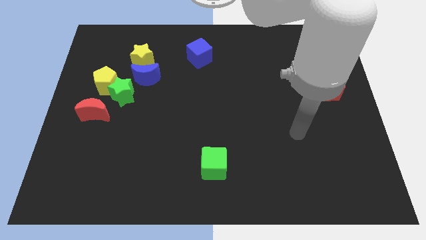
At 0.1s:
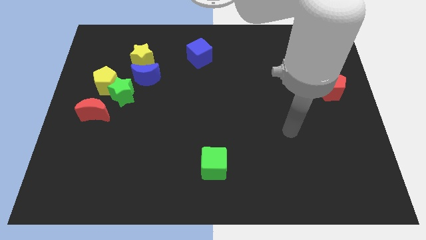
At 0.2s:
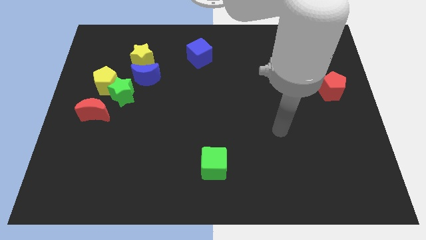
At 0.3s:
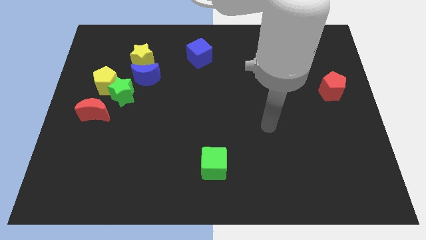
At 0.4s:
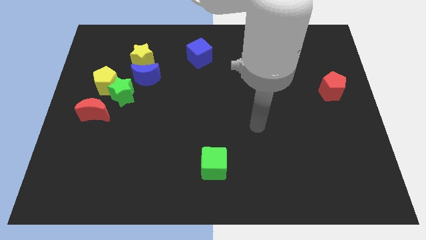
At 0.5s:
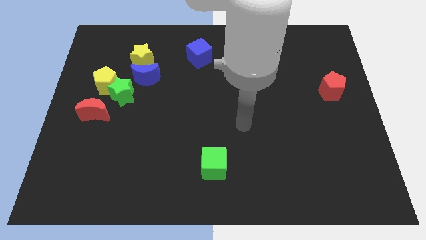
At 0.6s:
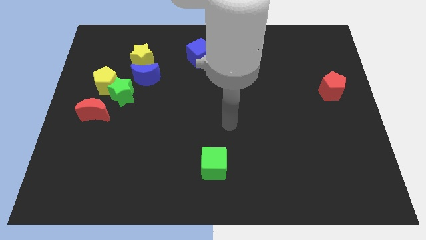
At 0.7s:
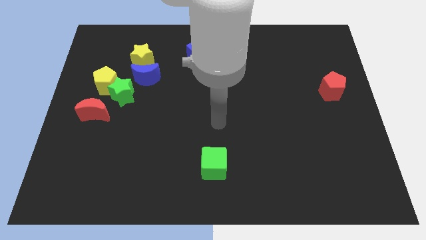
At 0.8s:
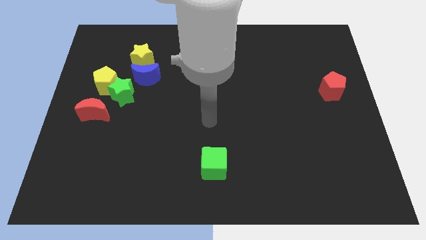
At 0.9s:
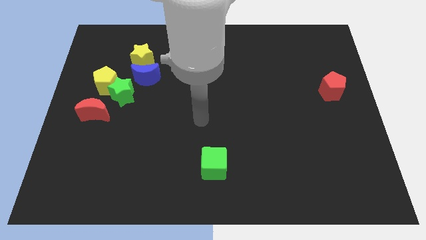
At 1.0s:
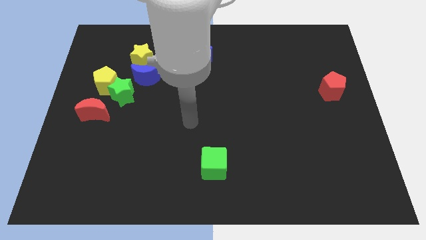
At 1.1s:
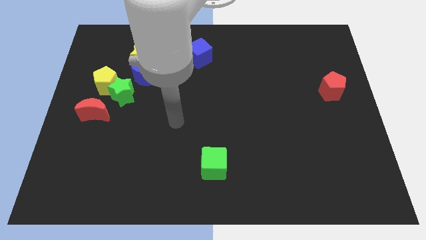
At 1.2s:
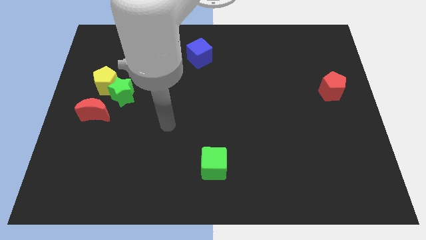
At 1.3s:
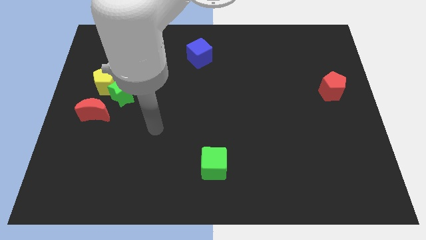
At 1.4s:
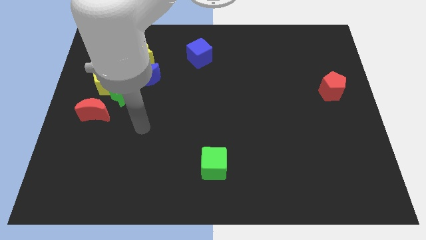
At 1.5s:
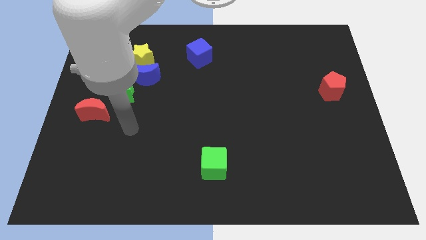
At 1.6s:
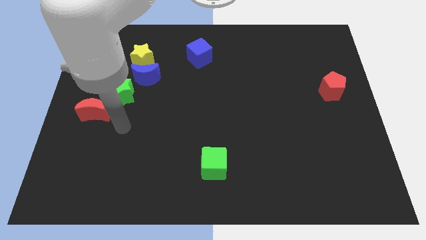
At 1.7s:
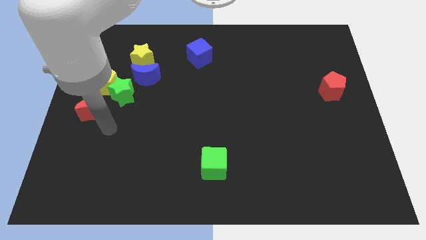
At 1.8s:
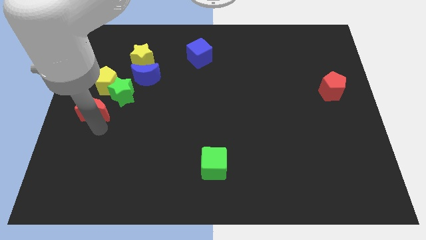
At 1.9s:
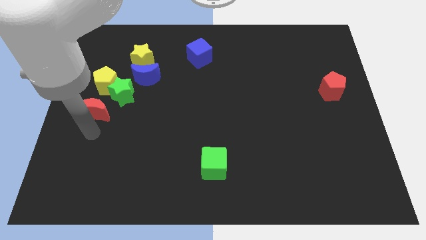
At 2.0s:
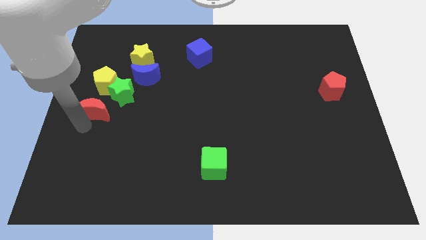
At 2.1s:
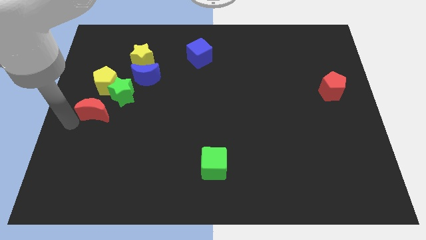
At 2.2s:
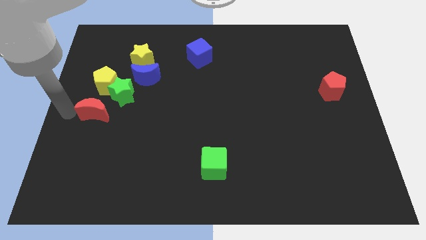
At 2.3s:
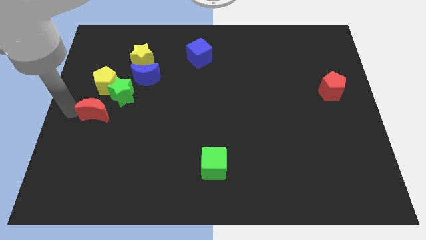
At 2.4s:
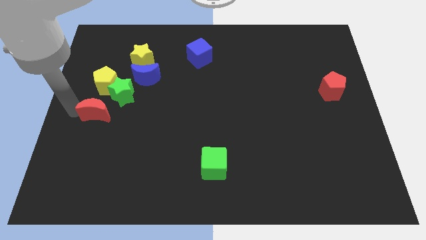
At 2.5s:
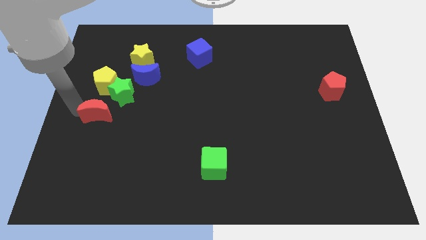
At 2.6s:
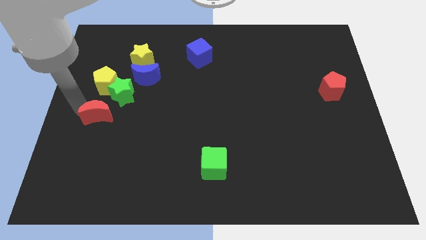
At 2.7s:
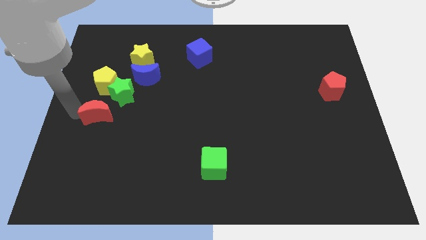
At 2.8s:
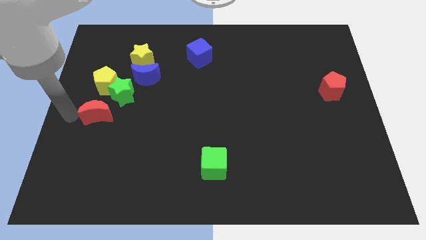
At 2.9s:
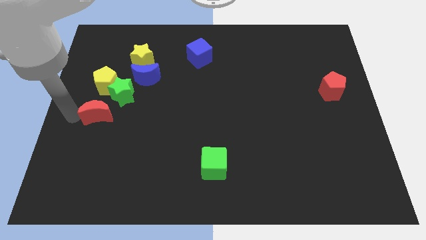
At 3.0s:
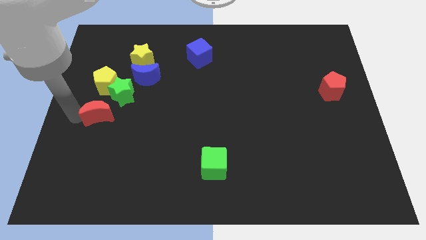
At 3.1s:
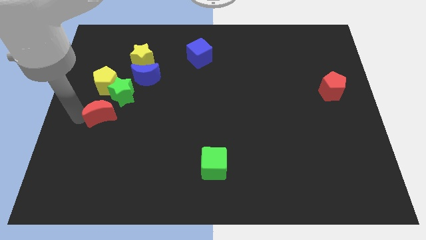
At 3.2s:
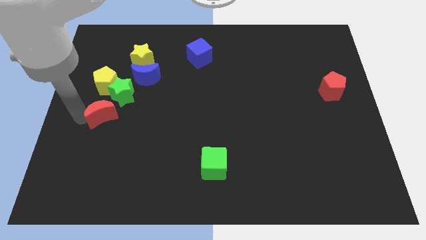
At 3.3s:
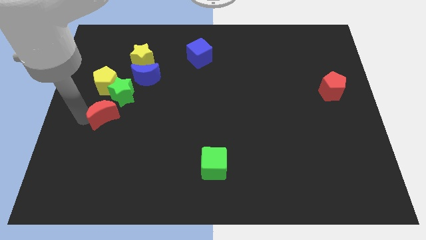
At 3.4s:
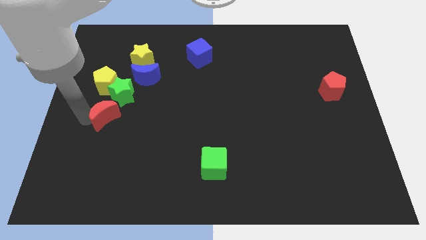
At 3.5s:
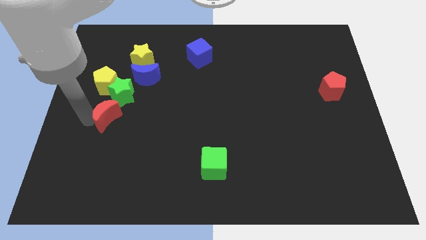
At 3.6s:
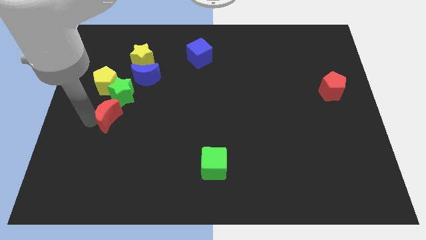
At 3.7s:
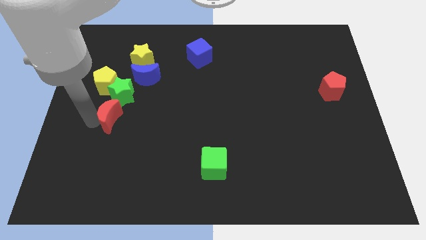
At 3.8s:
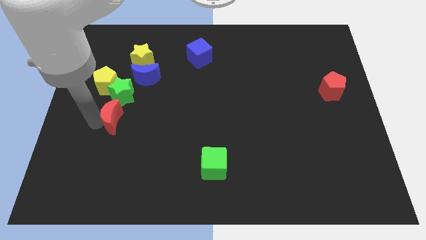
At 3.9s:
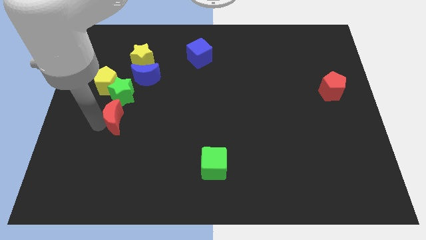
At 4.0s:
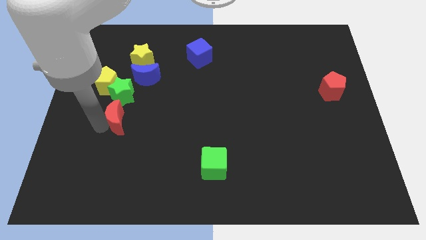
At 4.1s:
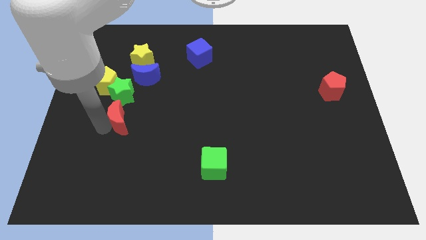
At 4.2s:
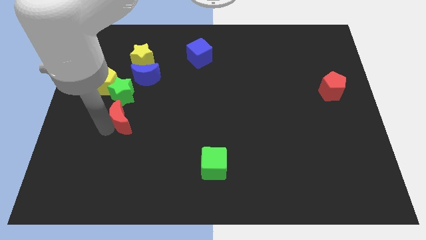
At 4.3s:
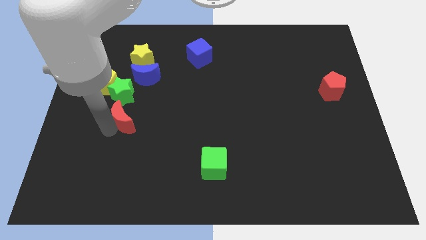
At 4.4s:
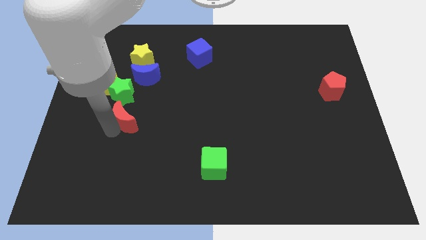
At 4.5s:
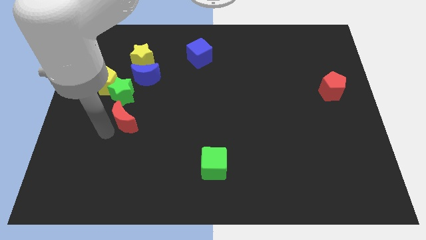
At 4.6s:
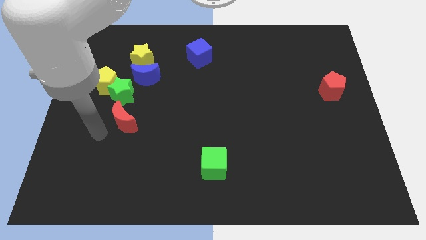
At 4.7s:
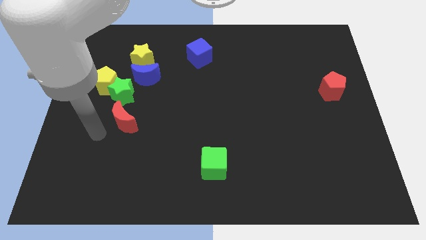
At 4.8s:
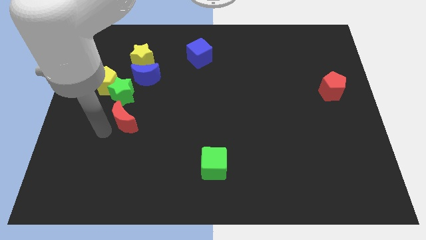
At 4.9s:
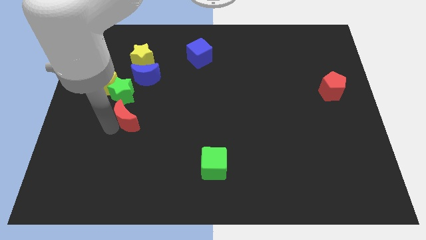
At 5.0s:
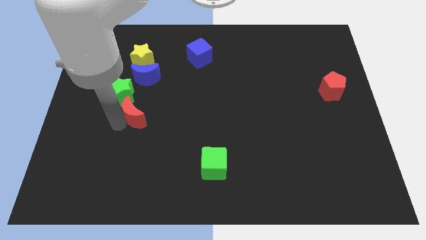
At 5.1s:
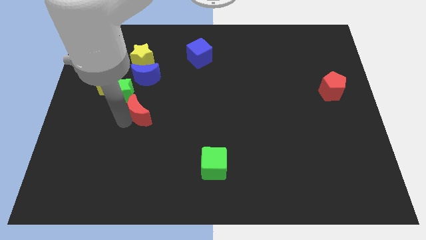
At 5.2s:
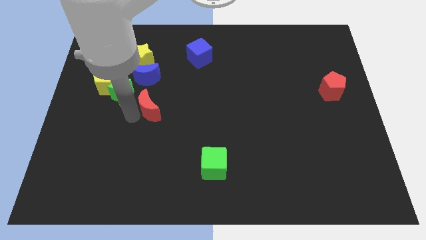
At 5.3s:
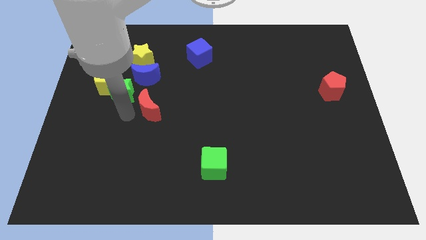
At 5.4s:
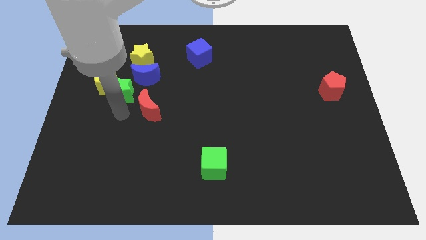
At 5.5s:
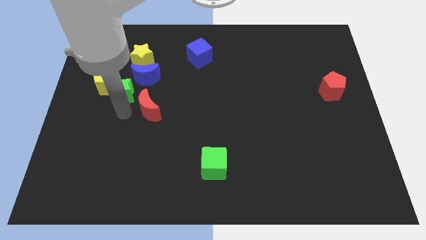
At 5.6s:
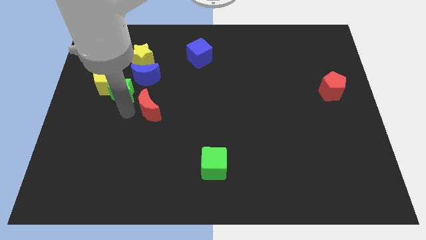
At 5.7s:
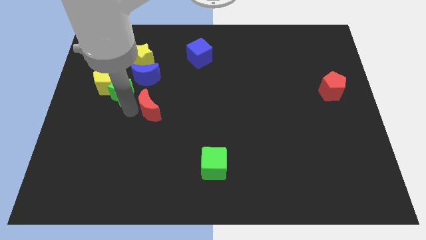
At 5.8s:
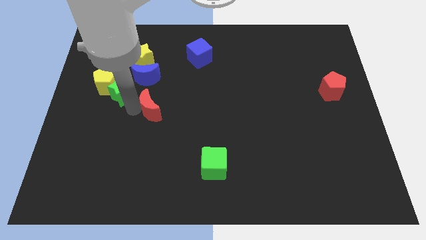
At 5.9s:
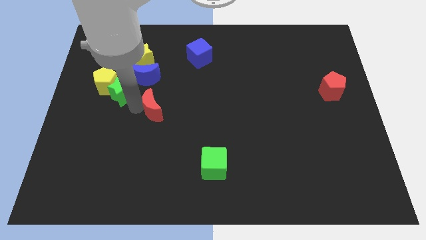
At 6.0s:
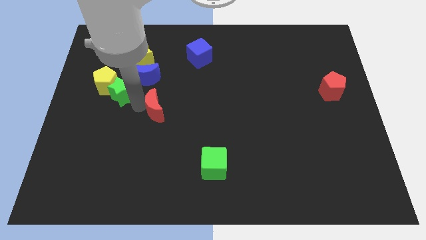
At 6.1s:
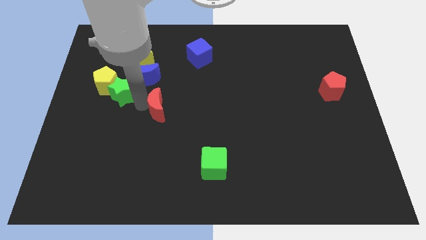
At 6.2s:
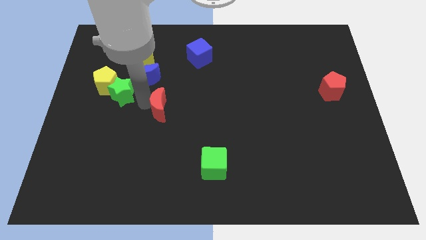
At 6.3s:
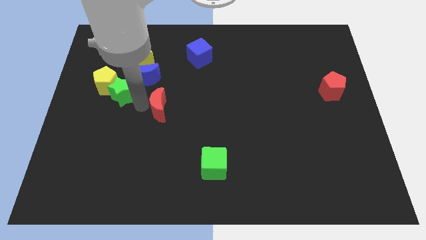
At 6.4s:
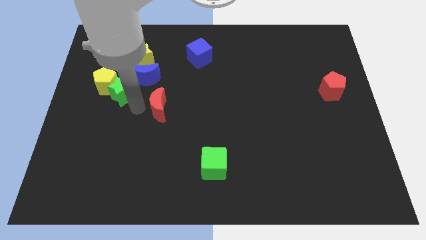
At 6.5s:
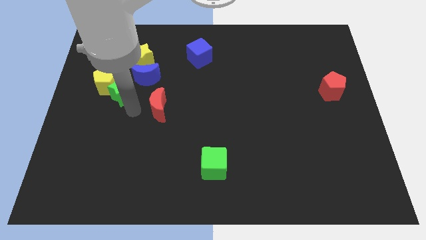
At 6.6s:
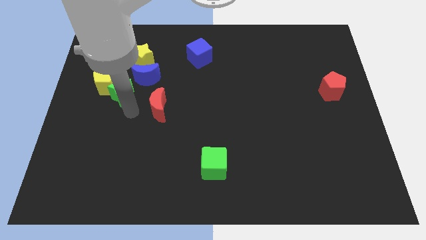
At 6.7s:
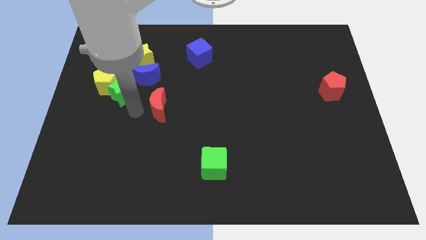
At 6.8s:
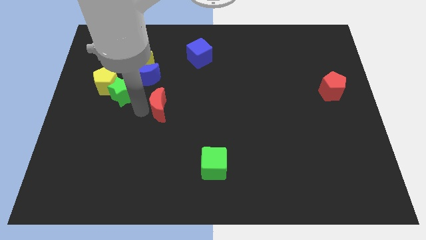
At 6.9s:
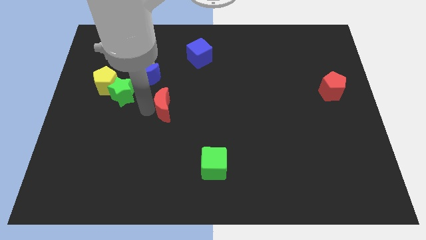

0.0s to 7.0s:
push the red moon to the middle of the board
